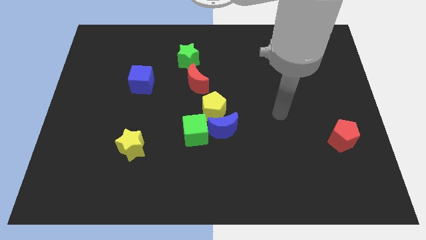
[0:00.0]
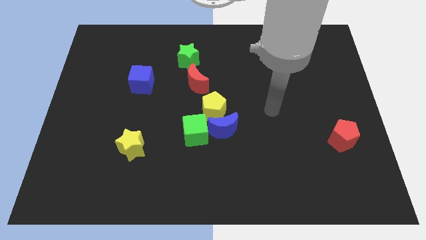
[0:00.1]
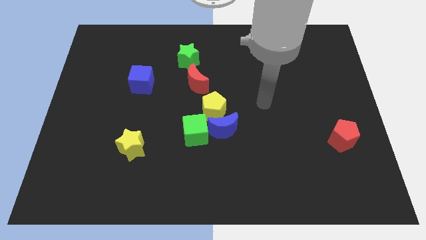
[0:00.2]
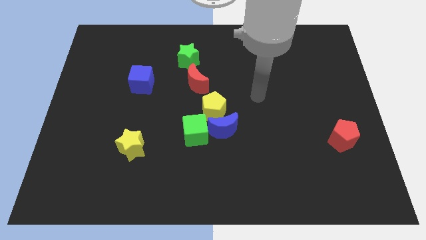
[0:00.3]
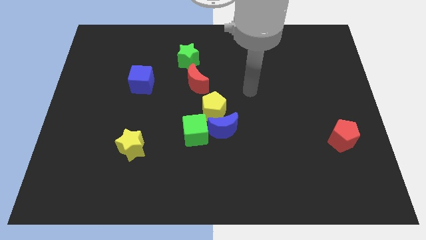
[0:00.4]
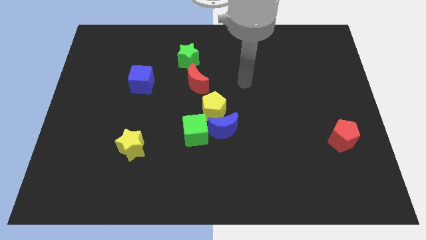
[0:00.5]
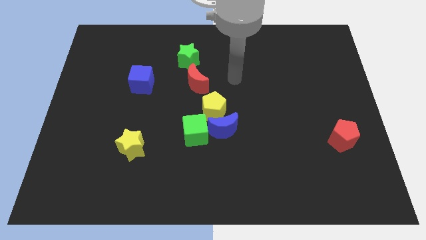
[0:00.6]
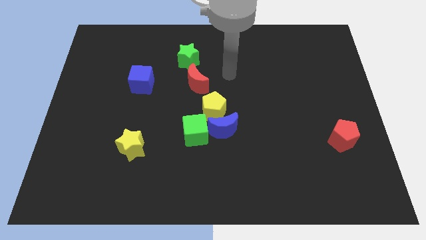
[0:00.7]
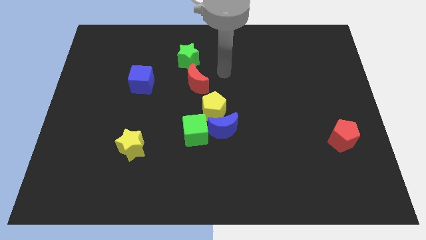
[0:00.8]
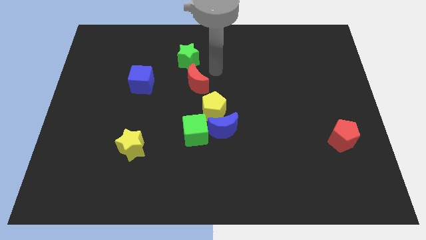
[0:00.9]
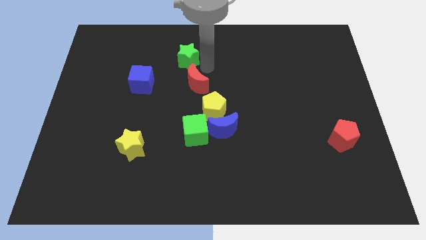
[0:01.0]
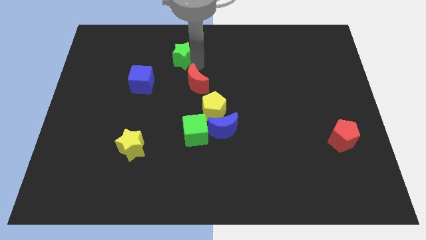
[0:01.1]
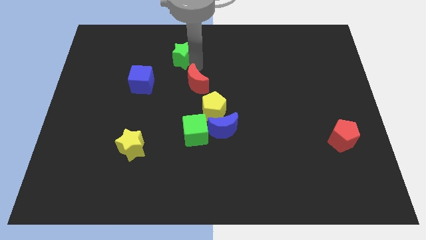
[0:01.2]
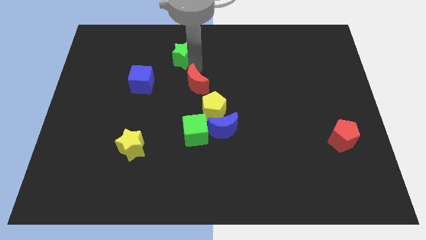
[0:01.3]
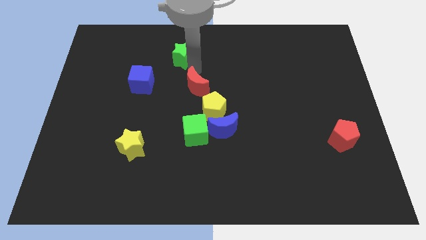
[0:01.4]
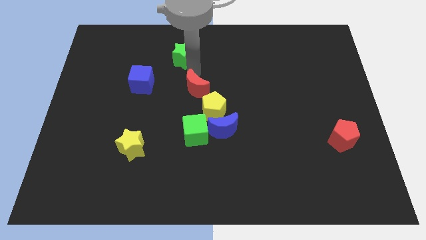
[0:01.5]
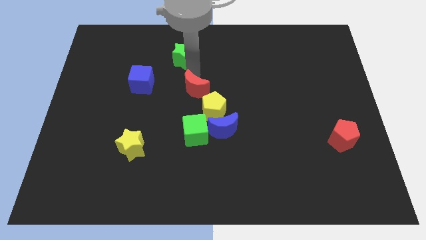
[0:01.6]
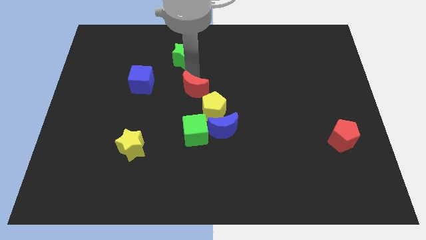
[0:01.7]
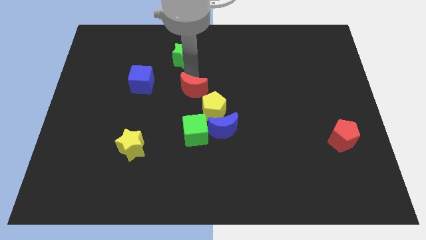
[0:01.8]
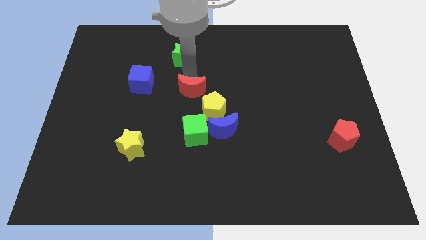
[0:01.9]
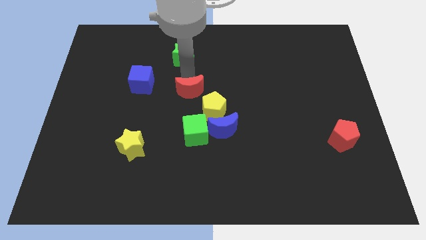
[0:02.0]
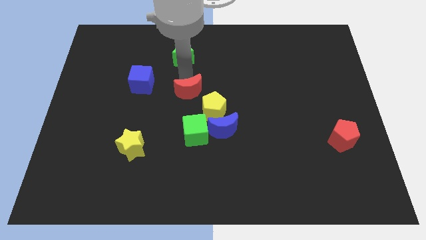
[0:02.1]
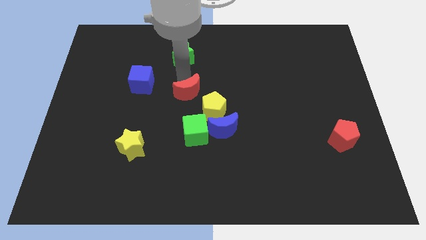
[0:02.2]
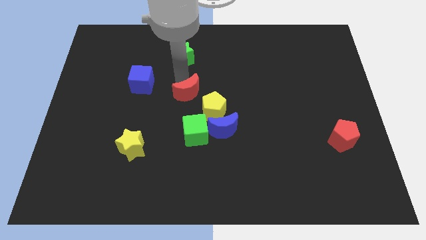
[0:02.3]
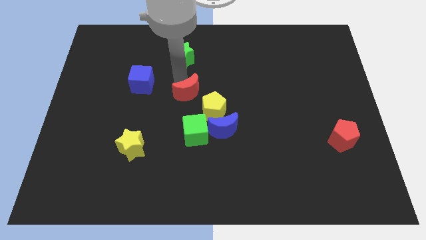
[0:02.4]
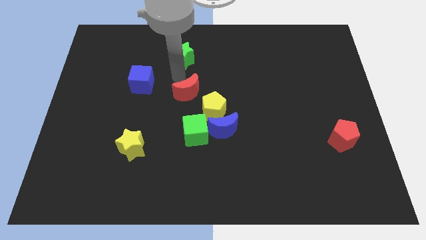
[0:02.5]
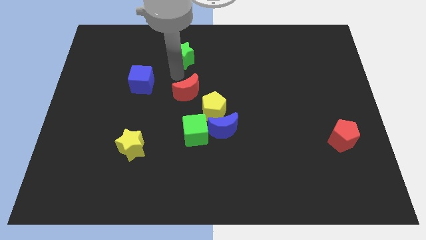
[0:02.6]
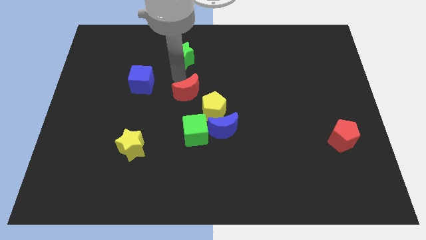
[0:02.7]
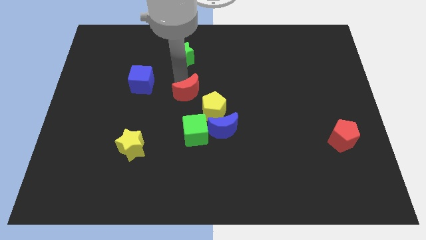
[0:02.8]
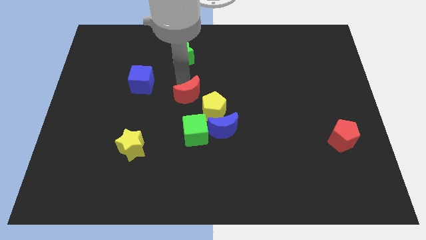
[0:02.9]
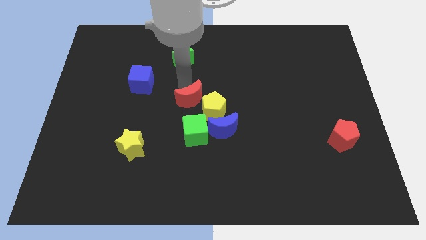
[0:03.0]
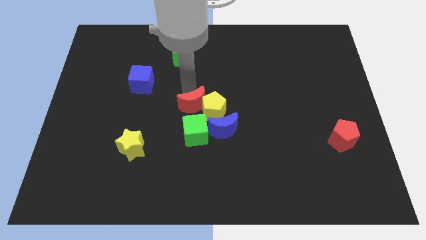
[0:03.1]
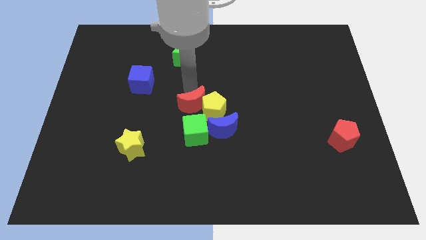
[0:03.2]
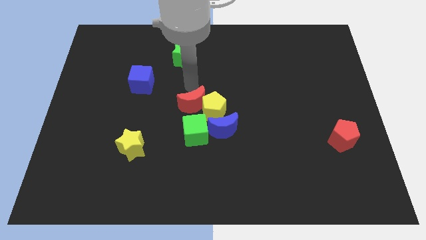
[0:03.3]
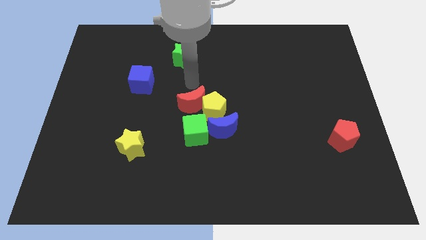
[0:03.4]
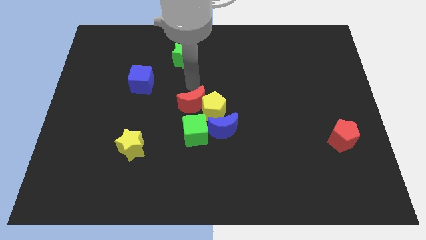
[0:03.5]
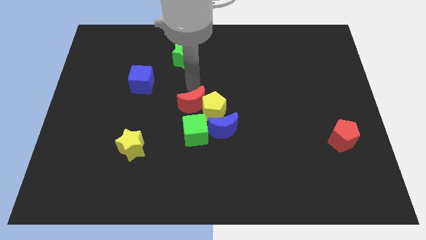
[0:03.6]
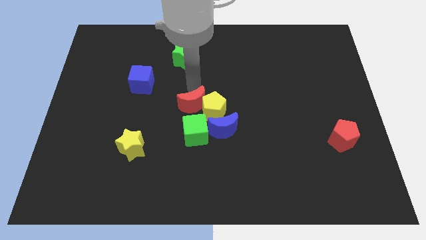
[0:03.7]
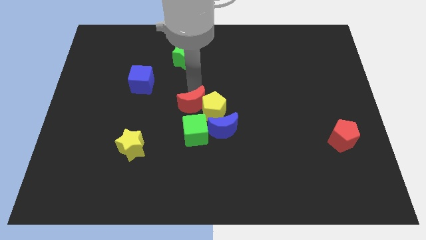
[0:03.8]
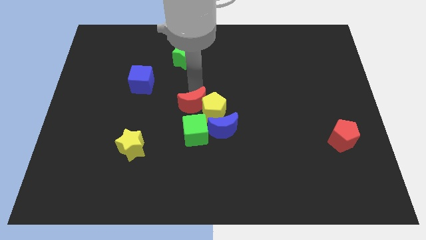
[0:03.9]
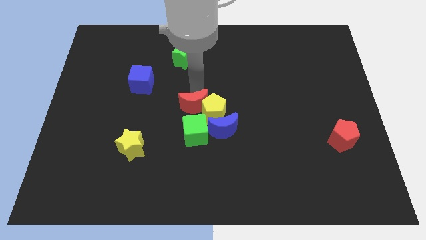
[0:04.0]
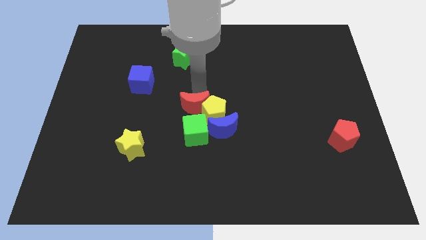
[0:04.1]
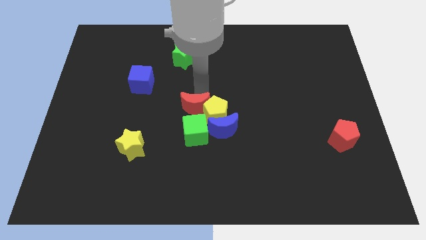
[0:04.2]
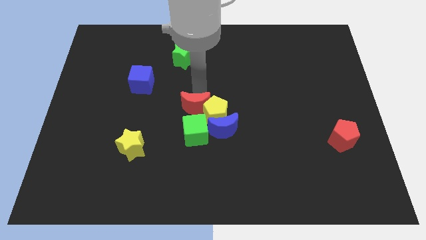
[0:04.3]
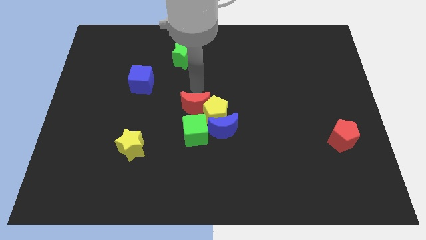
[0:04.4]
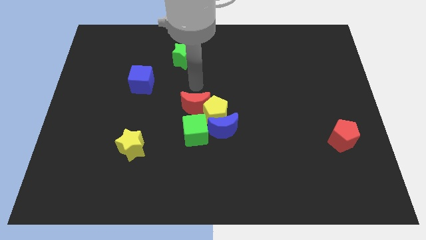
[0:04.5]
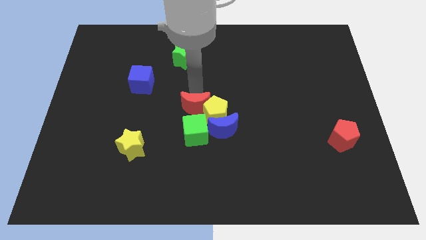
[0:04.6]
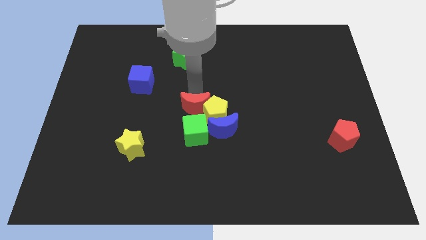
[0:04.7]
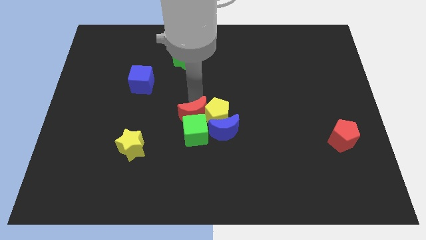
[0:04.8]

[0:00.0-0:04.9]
push the red moon towards the green cube

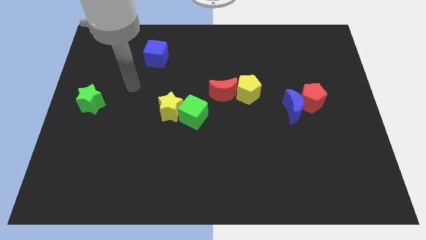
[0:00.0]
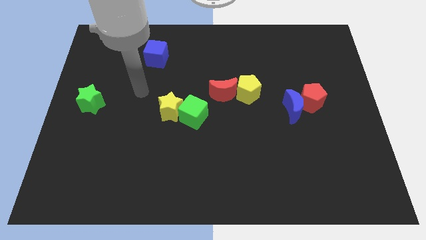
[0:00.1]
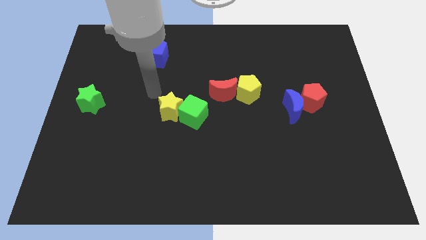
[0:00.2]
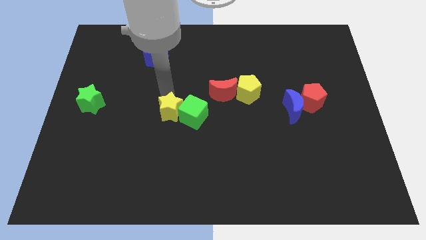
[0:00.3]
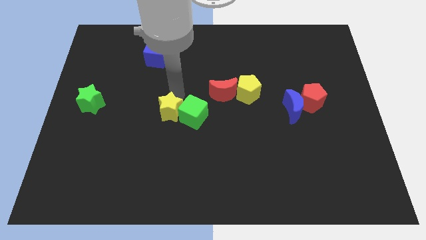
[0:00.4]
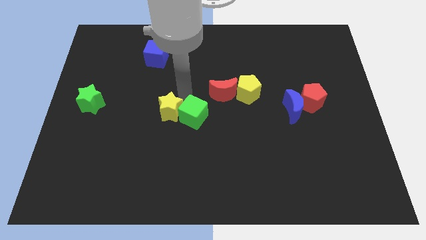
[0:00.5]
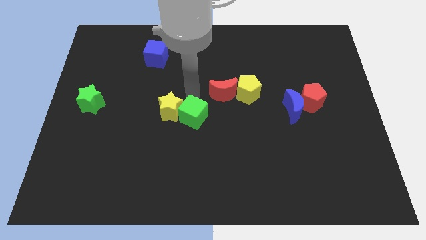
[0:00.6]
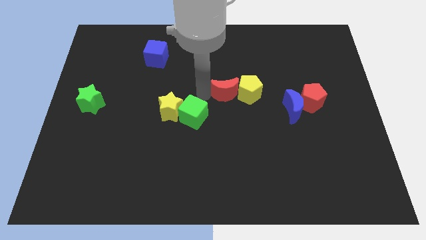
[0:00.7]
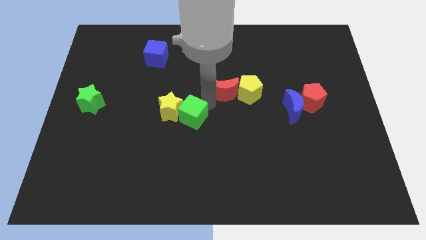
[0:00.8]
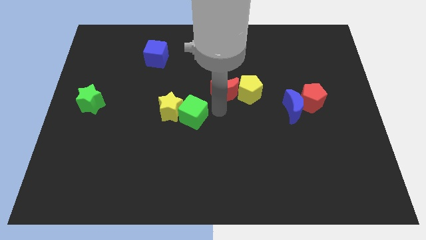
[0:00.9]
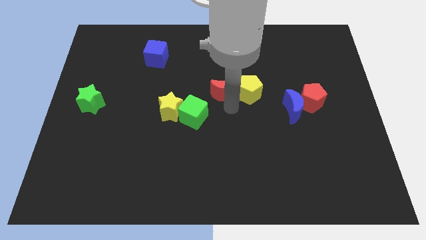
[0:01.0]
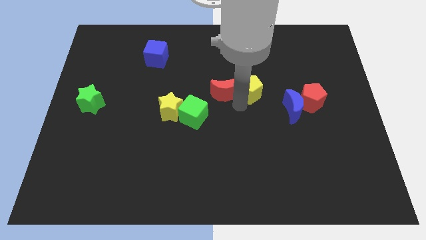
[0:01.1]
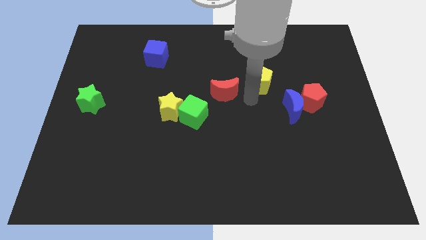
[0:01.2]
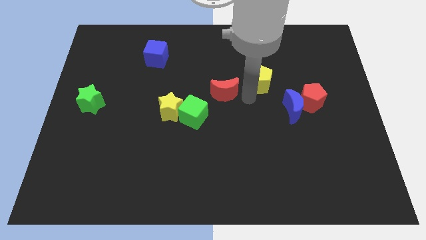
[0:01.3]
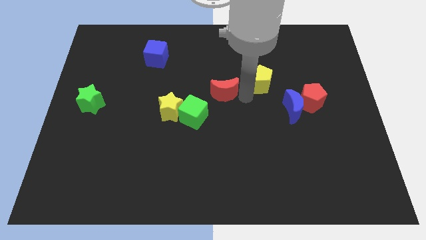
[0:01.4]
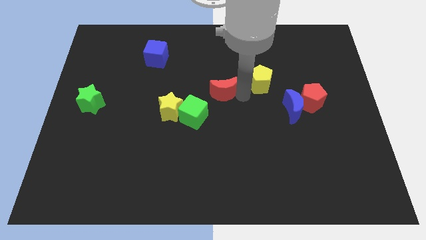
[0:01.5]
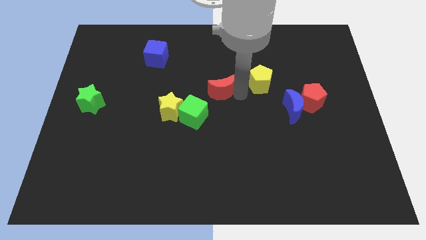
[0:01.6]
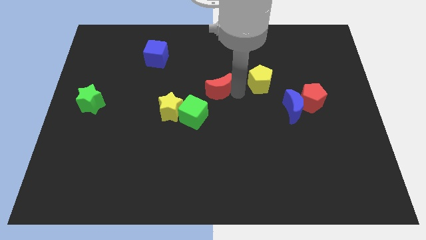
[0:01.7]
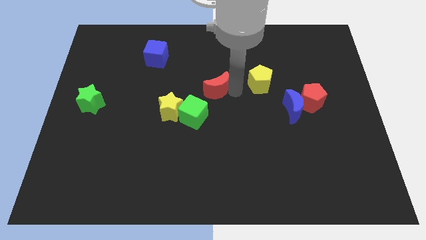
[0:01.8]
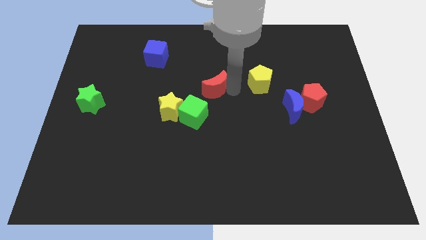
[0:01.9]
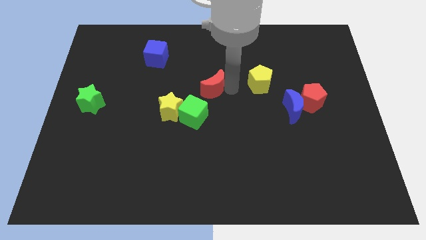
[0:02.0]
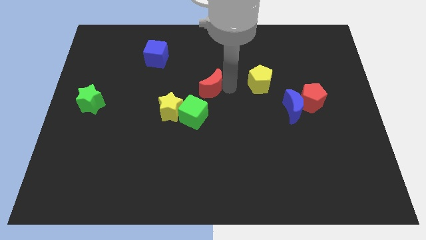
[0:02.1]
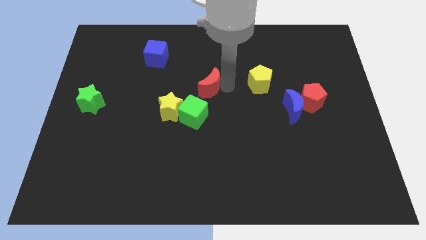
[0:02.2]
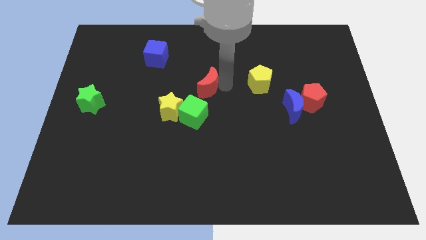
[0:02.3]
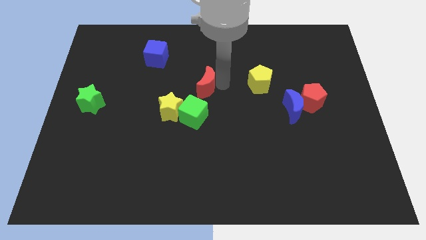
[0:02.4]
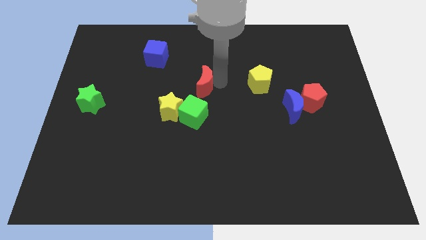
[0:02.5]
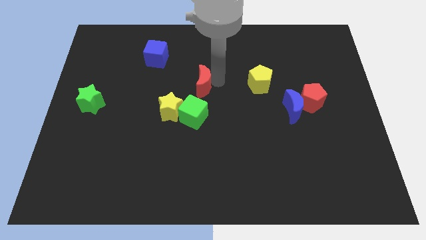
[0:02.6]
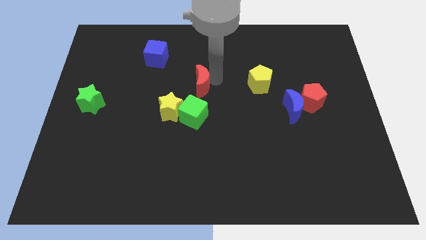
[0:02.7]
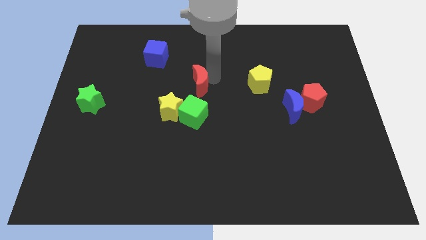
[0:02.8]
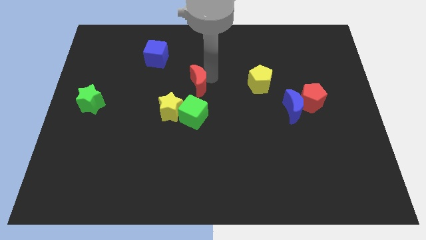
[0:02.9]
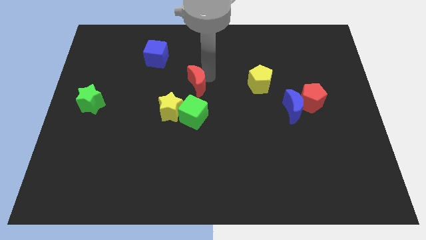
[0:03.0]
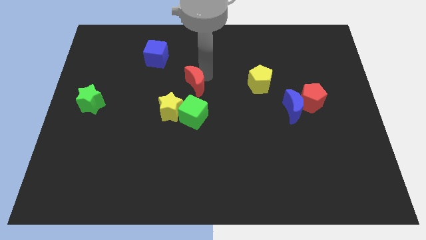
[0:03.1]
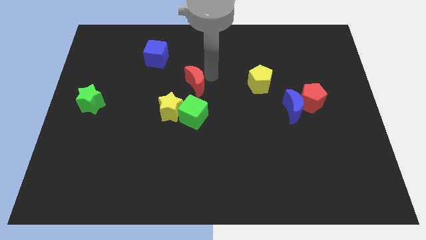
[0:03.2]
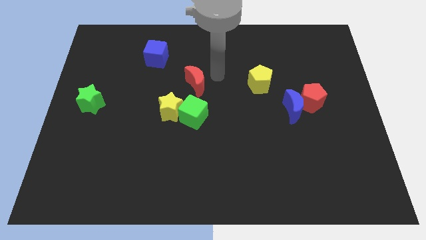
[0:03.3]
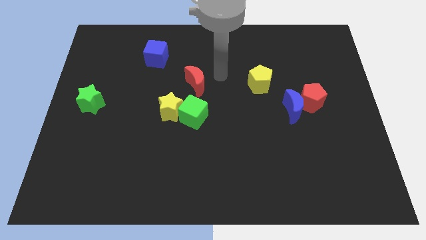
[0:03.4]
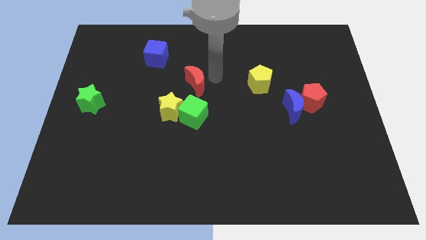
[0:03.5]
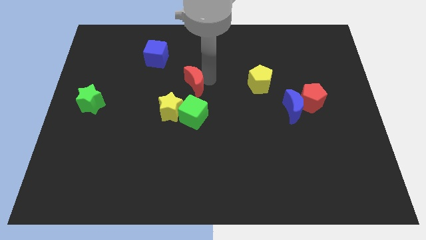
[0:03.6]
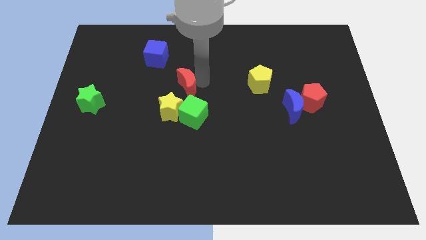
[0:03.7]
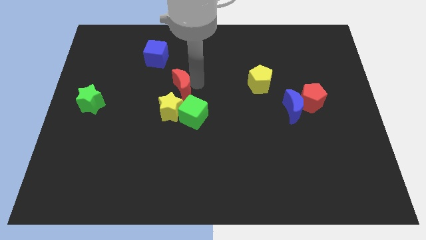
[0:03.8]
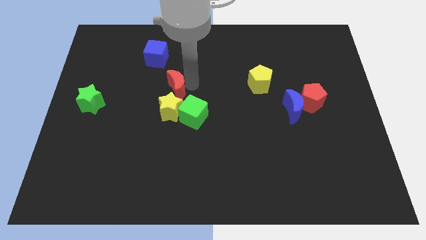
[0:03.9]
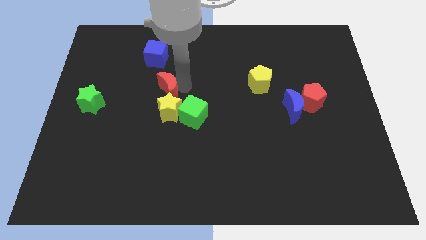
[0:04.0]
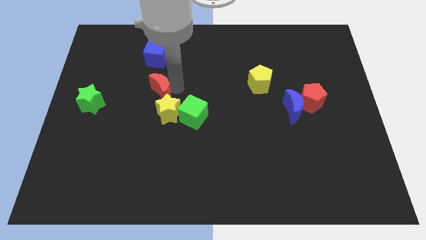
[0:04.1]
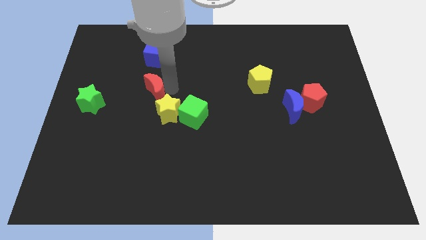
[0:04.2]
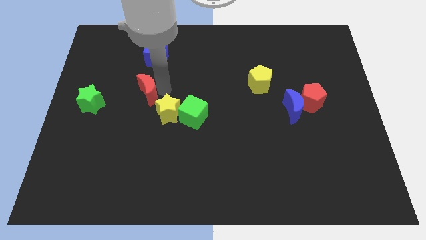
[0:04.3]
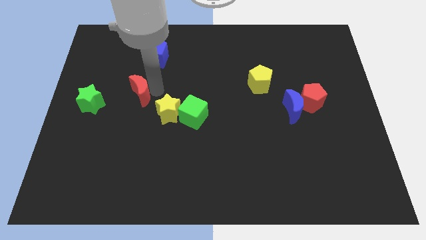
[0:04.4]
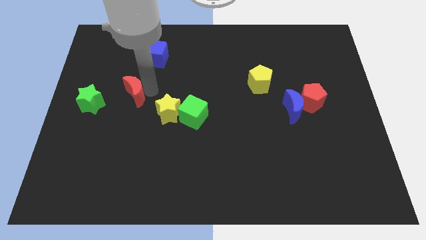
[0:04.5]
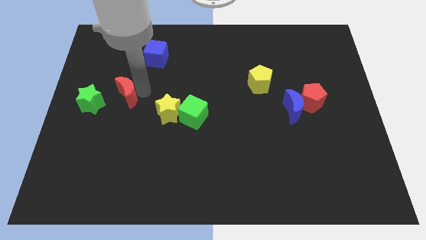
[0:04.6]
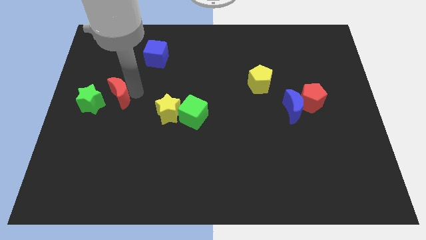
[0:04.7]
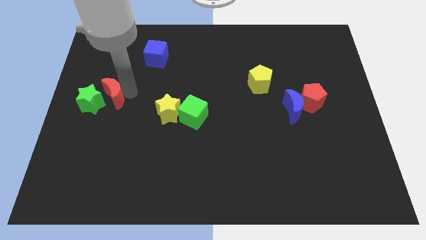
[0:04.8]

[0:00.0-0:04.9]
push the red moon to the green star
